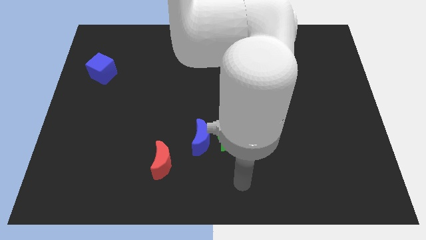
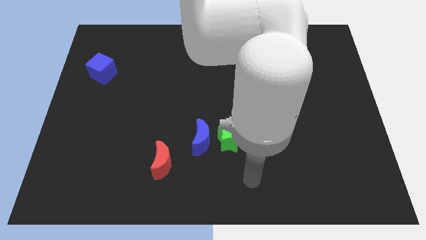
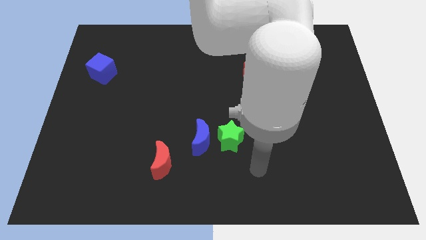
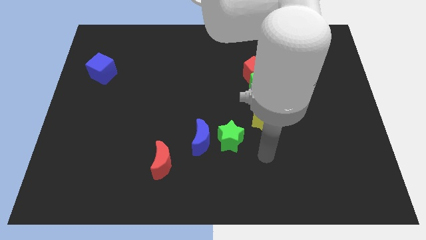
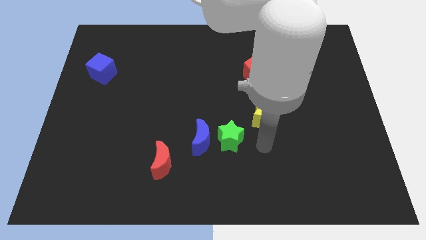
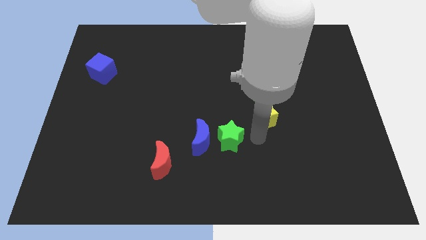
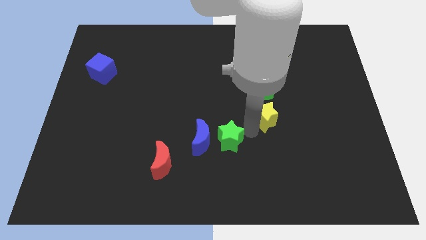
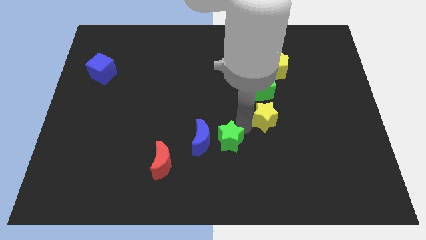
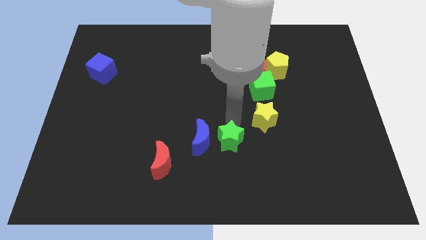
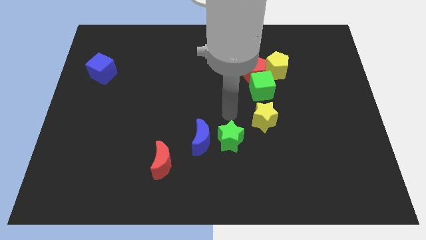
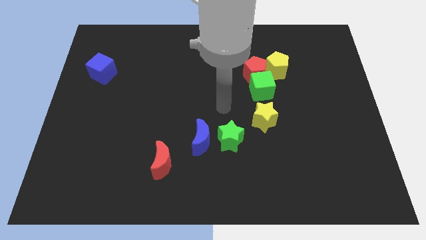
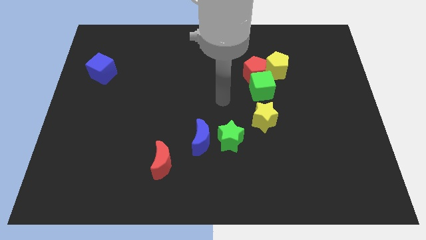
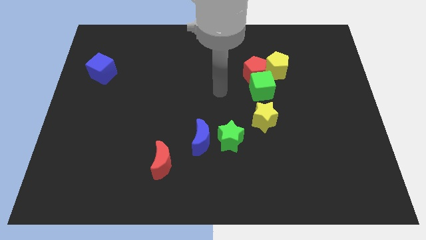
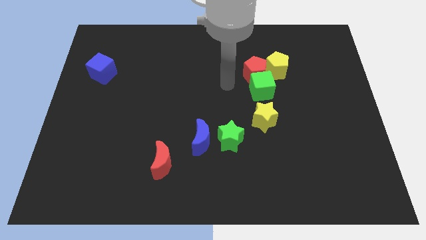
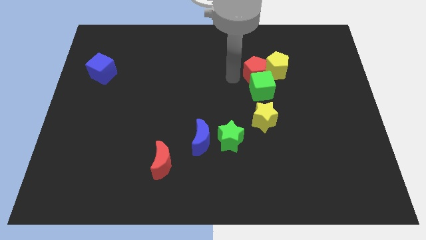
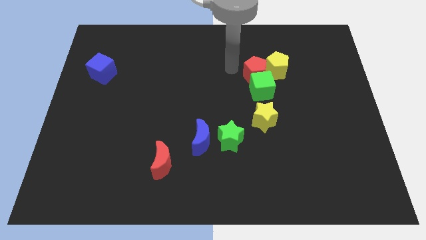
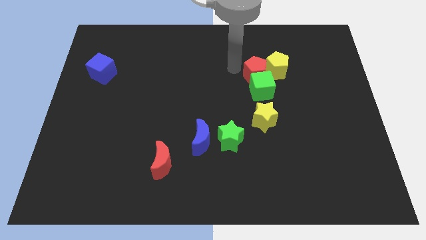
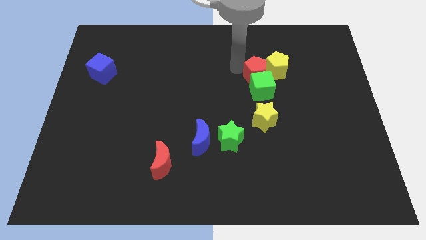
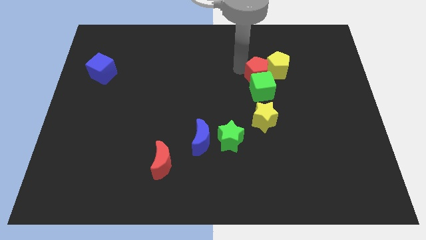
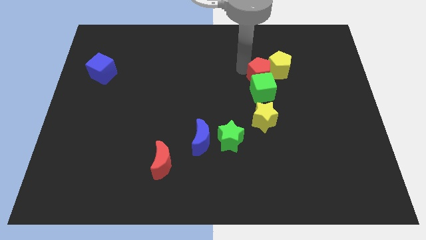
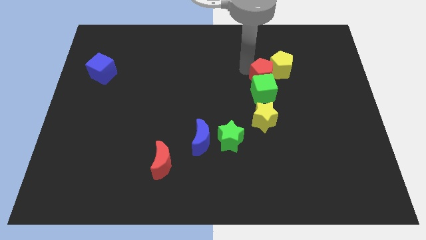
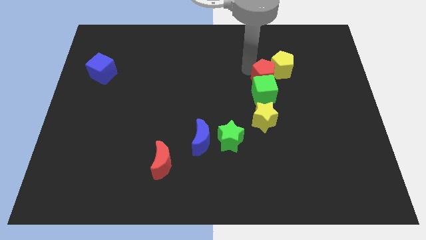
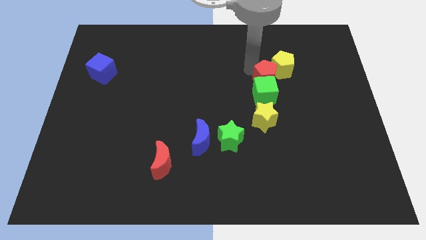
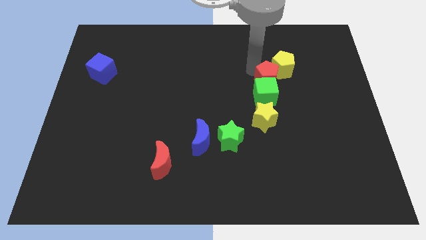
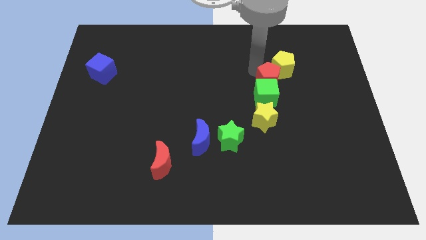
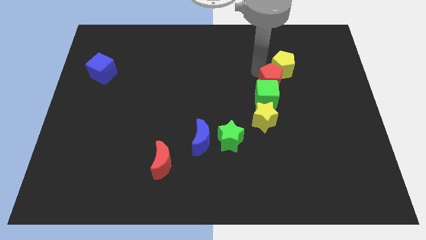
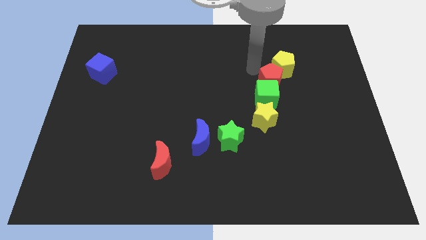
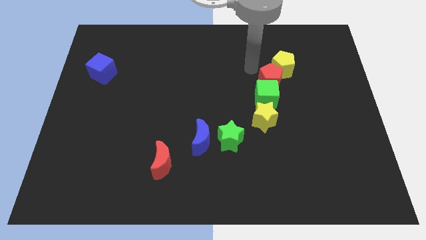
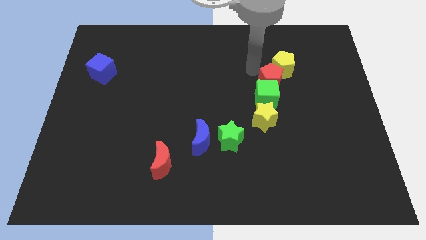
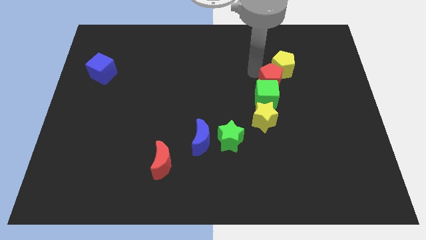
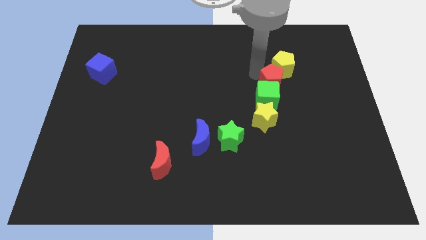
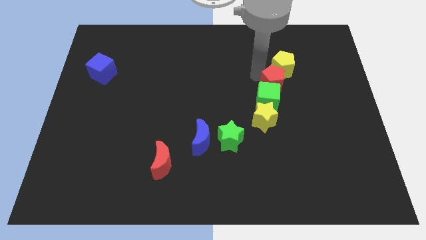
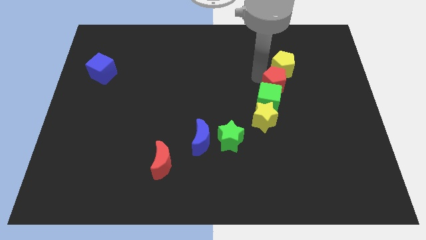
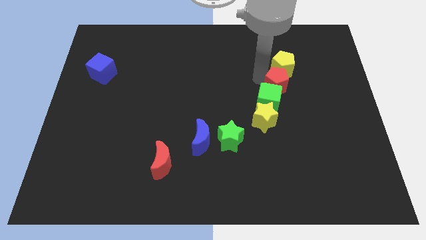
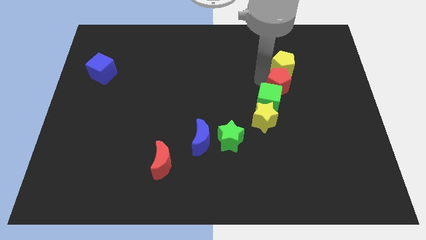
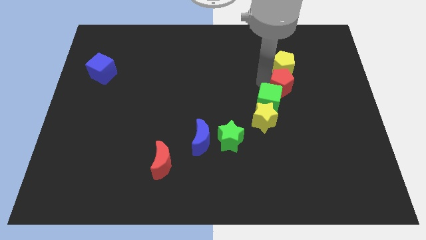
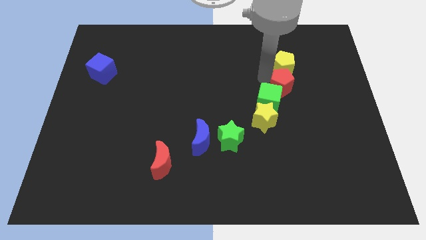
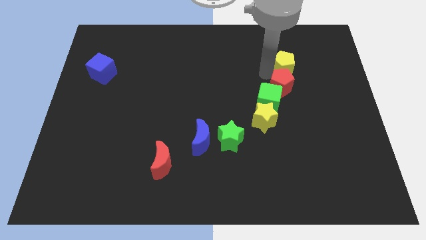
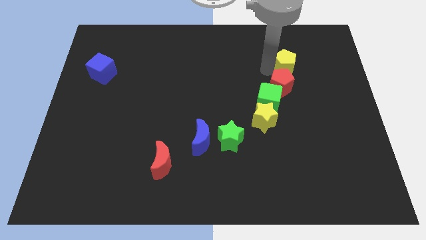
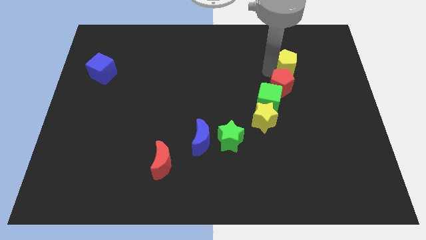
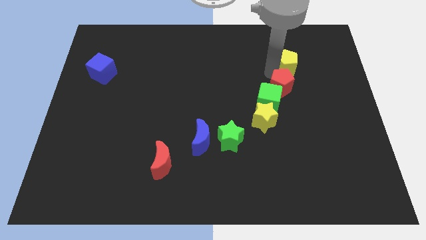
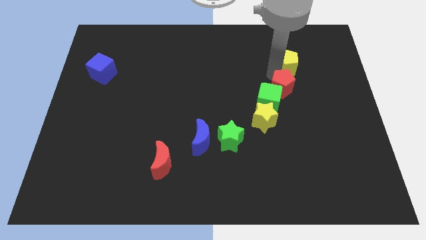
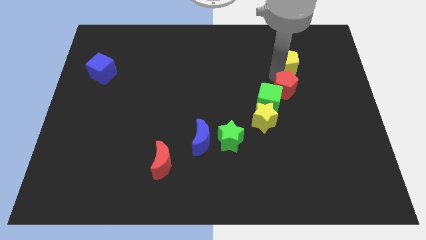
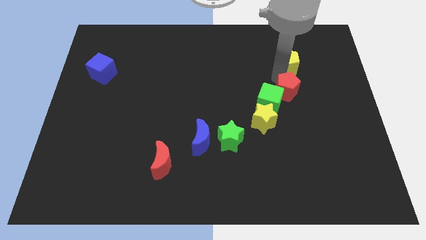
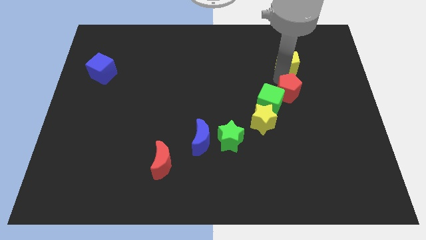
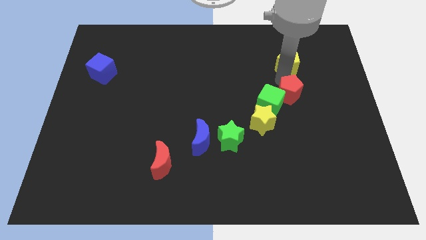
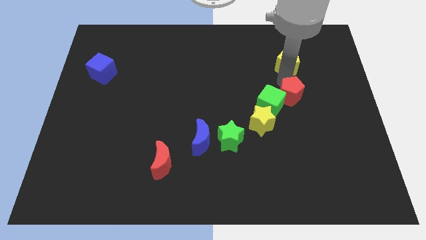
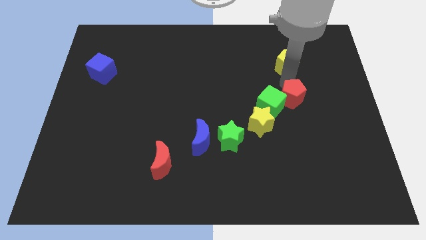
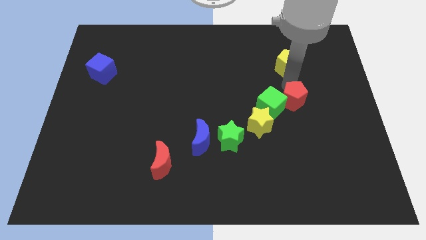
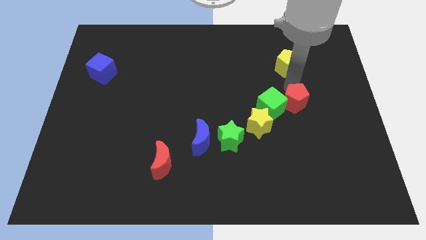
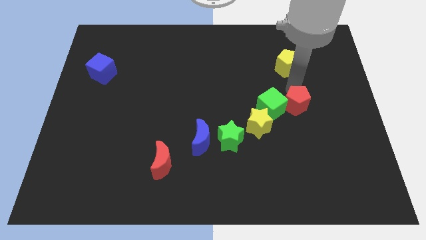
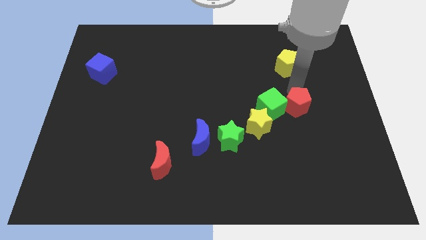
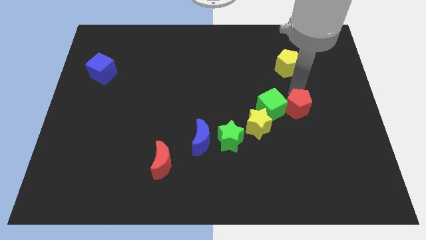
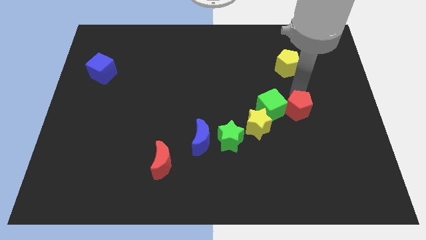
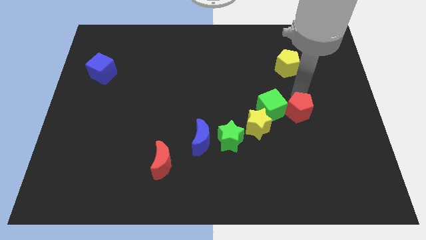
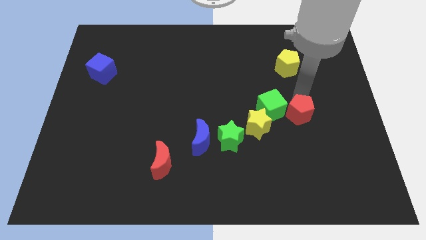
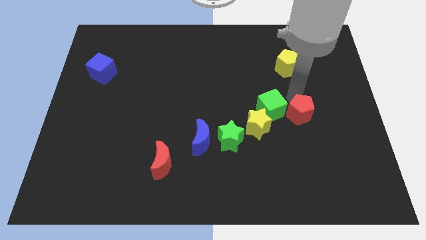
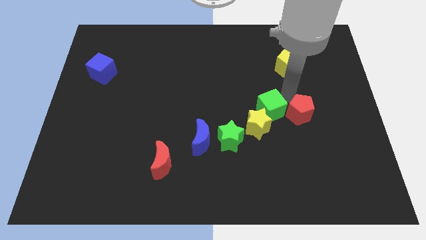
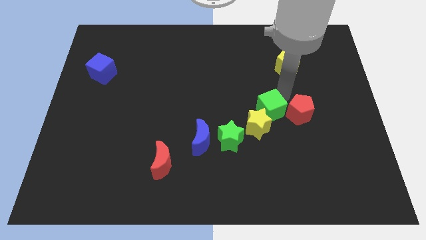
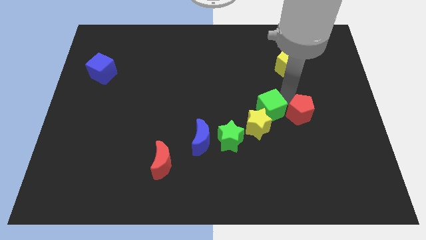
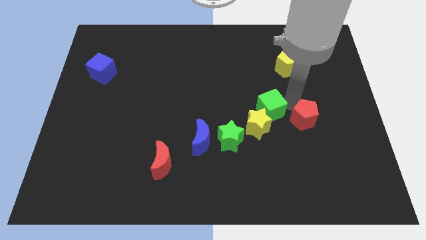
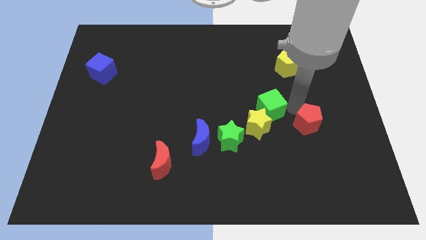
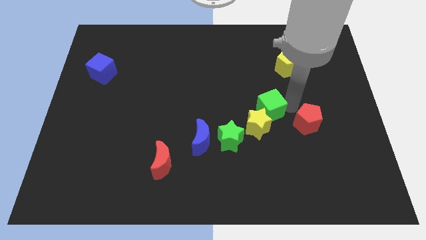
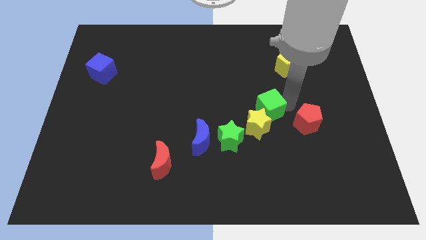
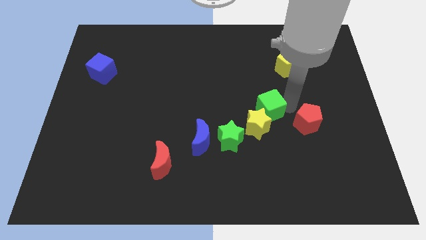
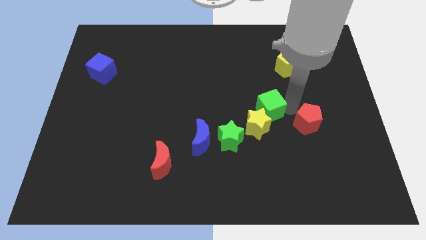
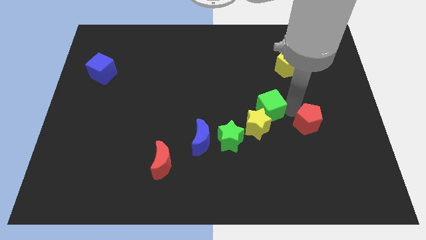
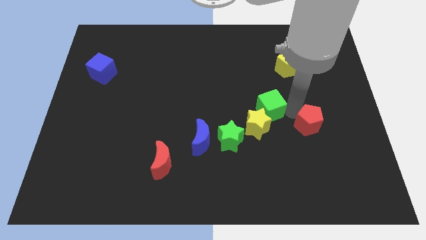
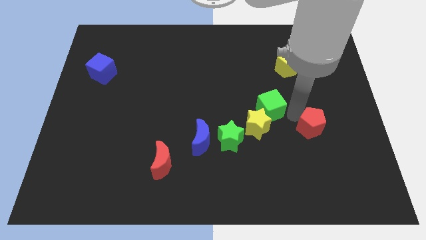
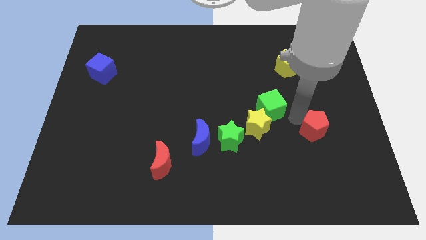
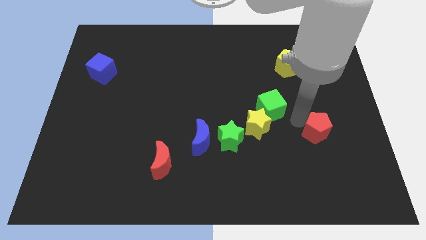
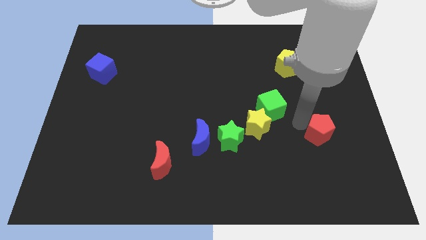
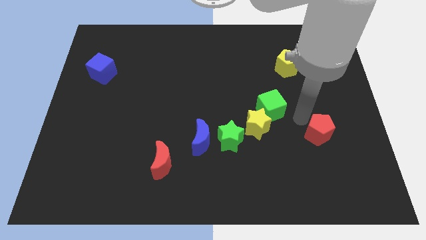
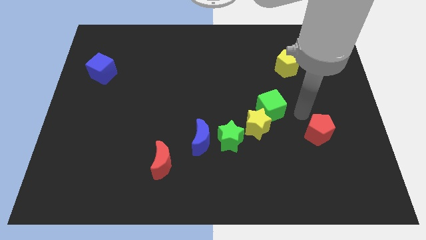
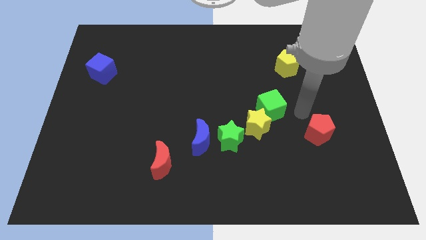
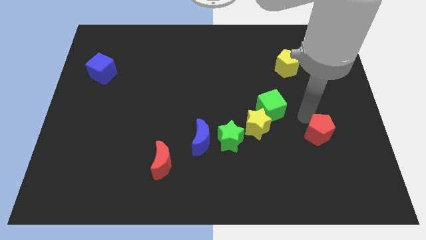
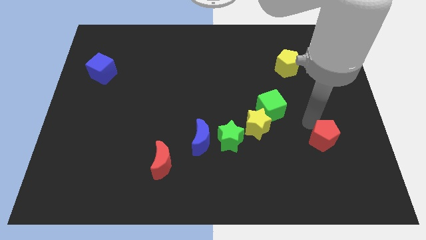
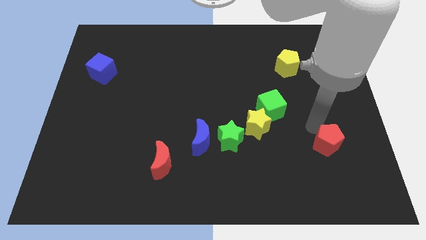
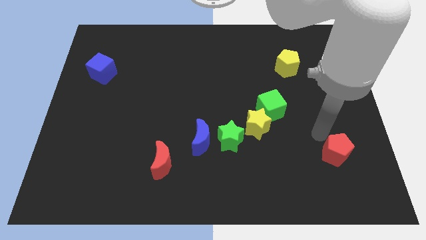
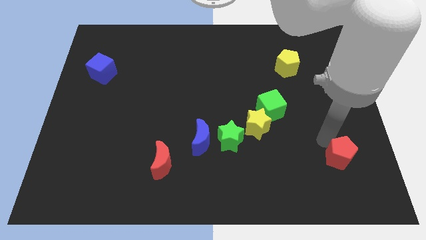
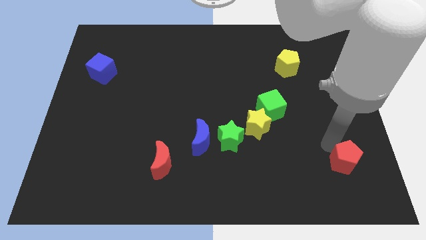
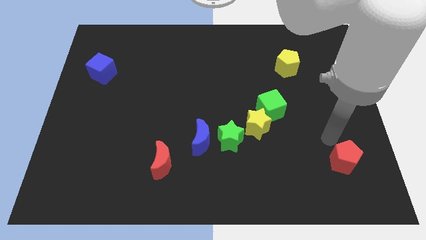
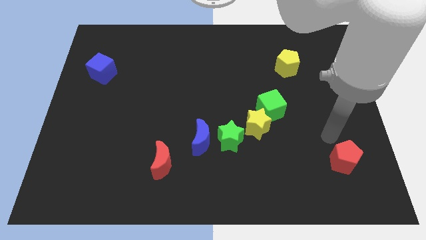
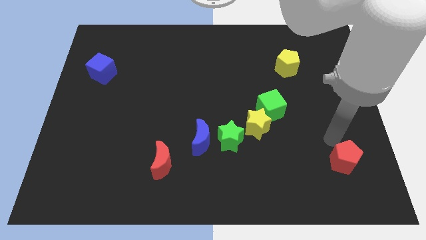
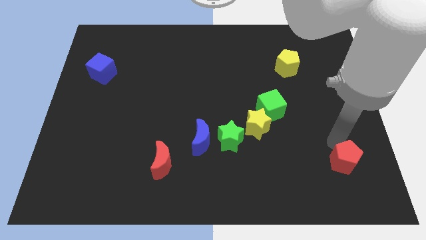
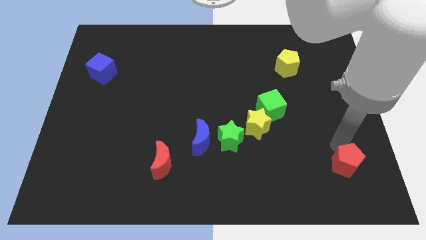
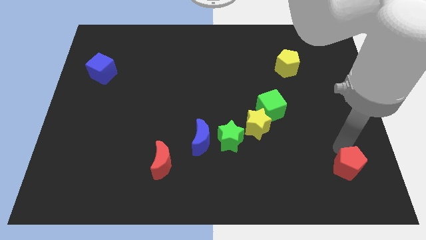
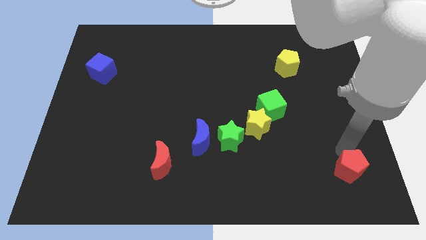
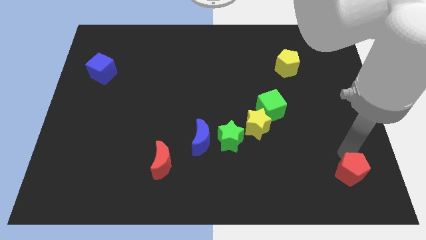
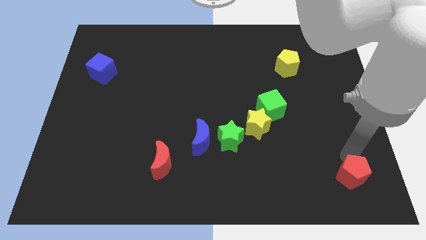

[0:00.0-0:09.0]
push the red pentagon to the bottom right of the board
